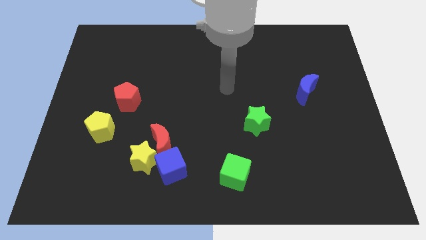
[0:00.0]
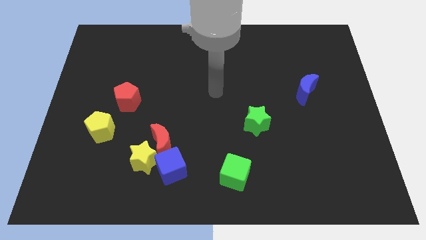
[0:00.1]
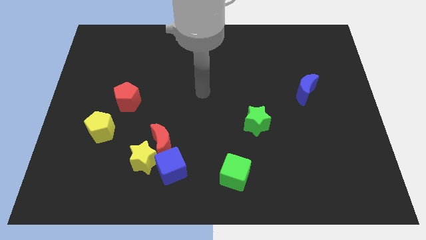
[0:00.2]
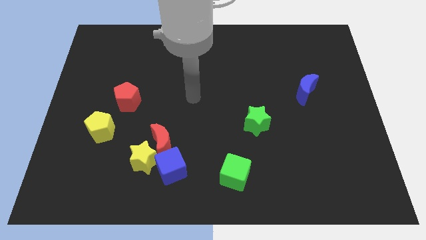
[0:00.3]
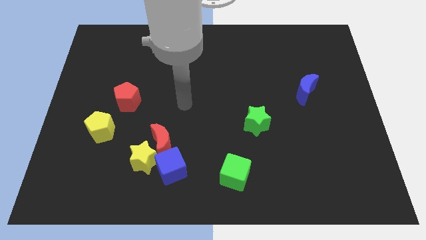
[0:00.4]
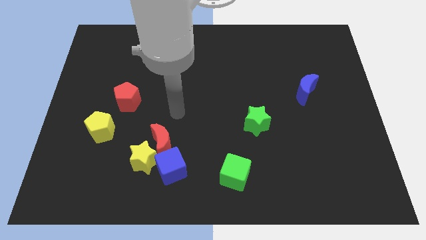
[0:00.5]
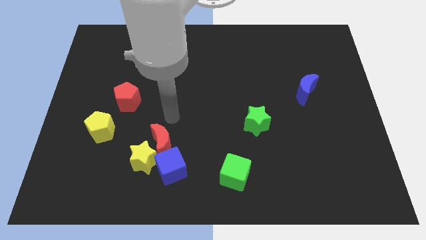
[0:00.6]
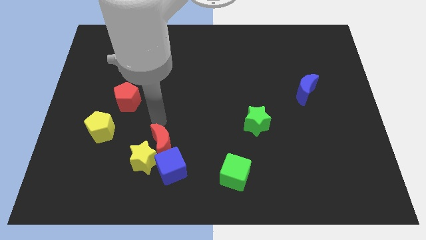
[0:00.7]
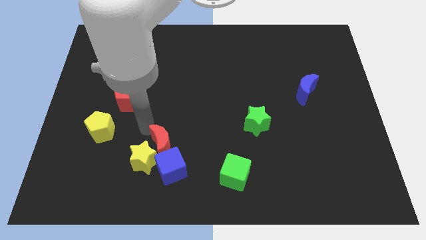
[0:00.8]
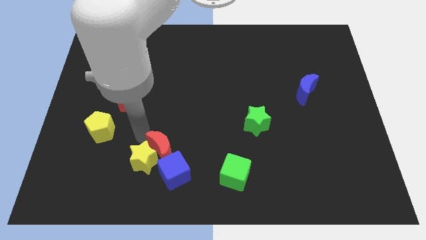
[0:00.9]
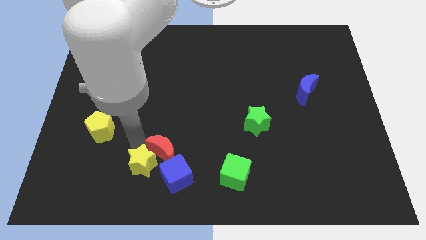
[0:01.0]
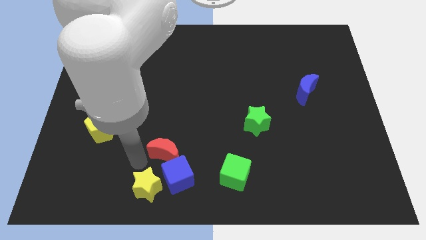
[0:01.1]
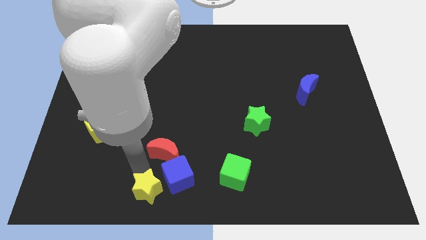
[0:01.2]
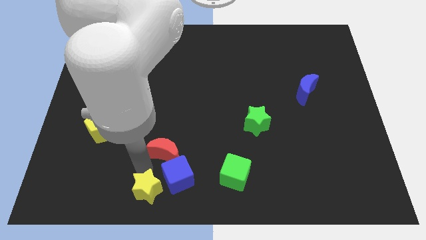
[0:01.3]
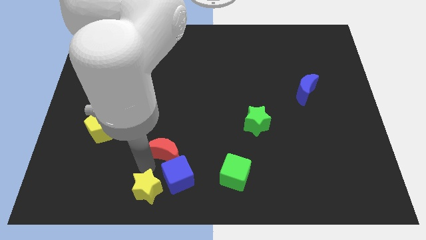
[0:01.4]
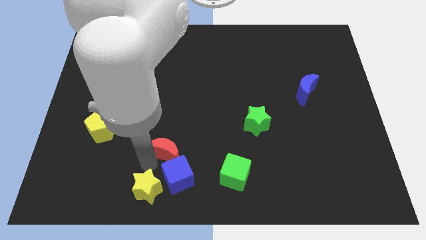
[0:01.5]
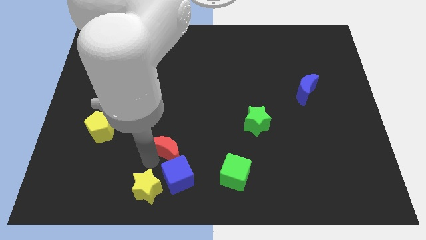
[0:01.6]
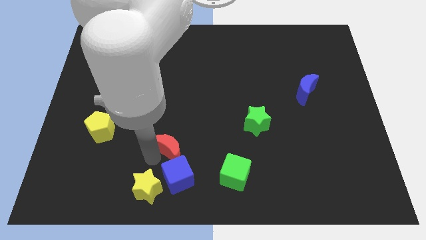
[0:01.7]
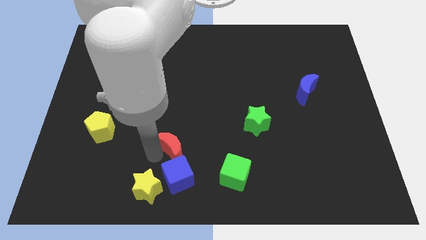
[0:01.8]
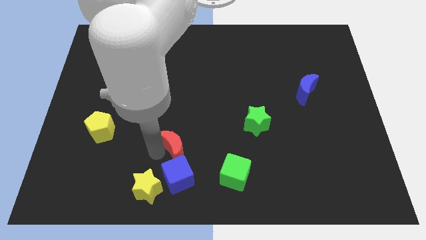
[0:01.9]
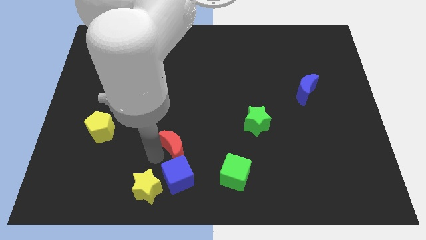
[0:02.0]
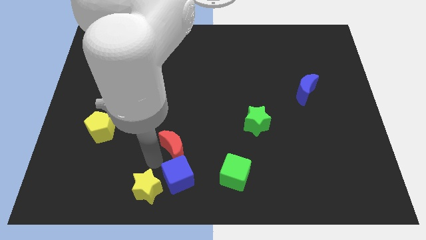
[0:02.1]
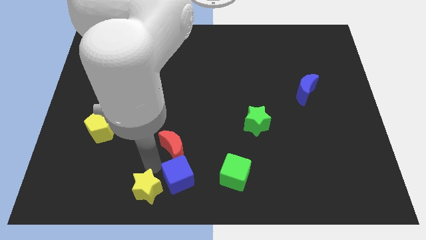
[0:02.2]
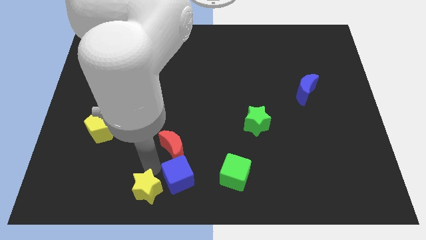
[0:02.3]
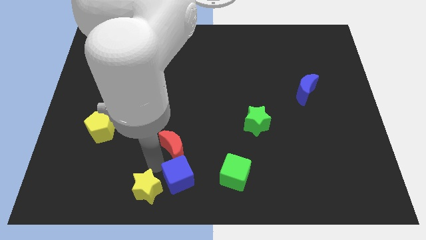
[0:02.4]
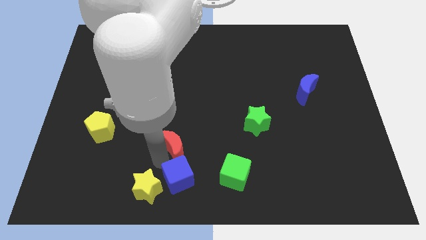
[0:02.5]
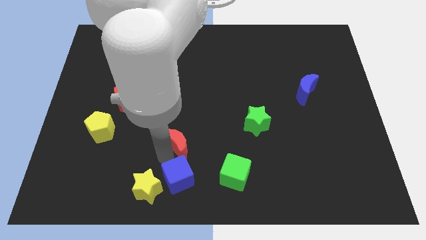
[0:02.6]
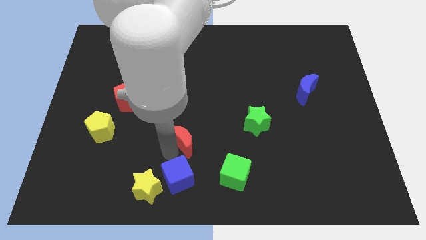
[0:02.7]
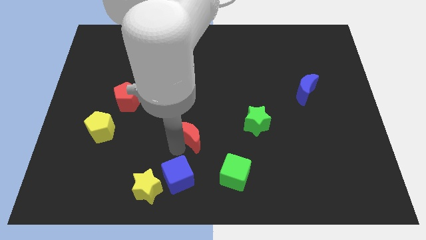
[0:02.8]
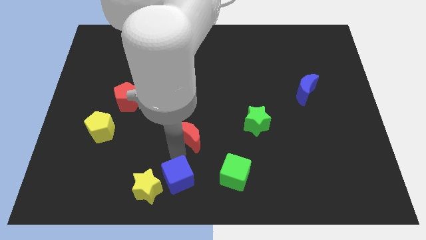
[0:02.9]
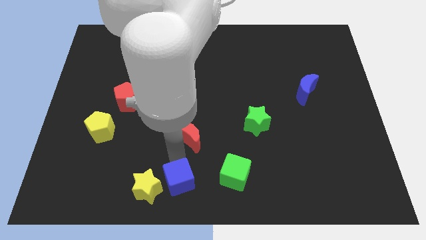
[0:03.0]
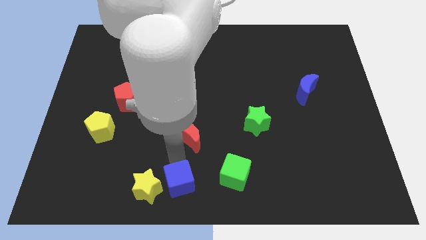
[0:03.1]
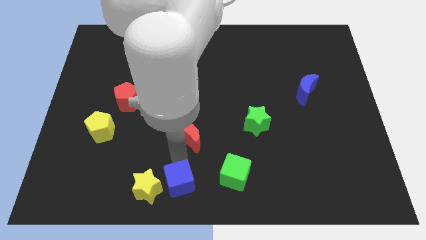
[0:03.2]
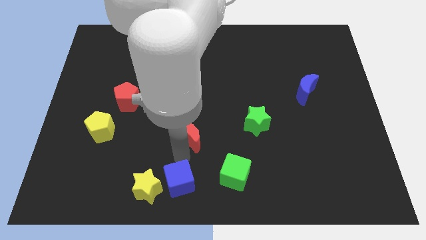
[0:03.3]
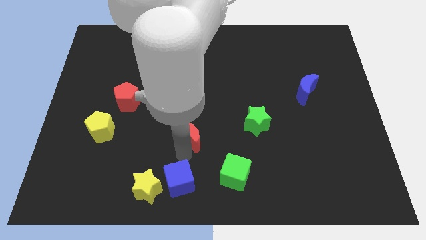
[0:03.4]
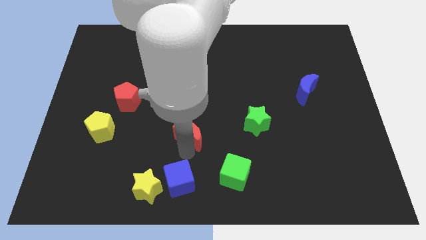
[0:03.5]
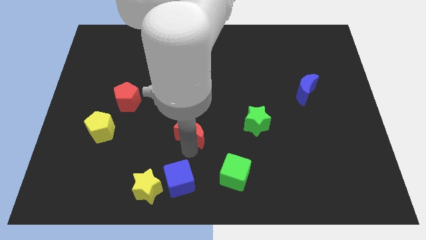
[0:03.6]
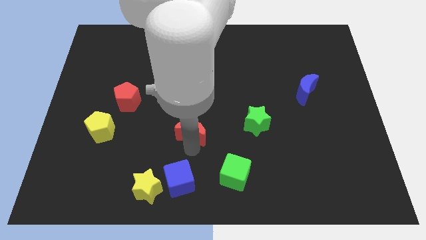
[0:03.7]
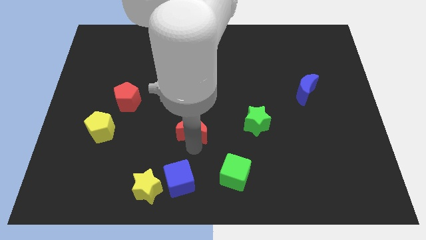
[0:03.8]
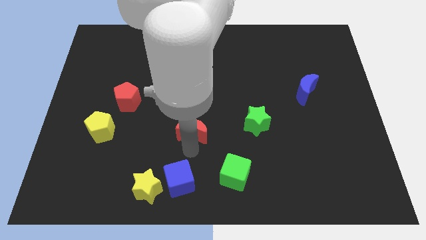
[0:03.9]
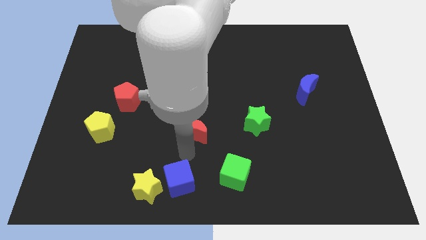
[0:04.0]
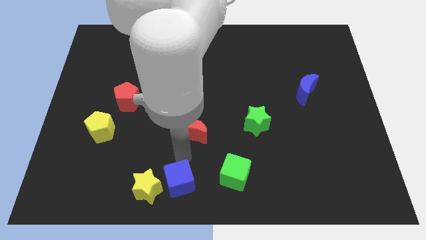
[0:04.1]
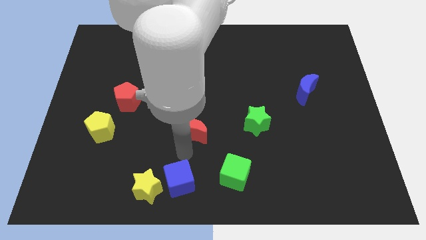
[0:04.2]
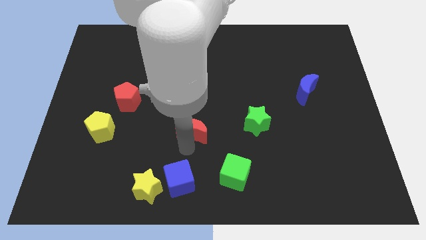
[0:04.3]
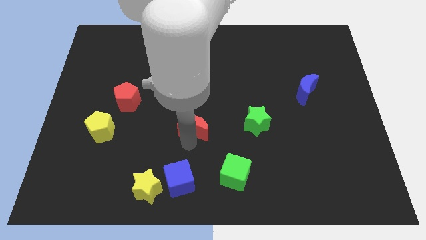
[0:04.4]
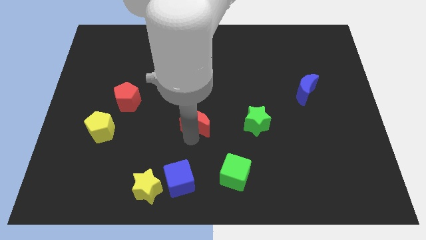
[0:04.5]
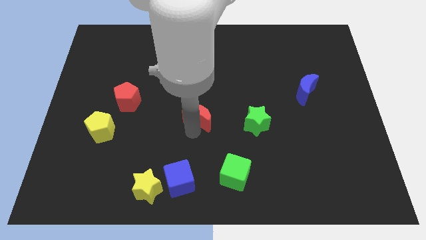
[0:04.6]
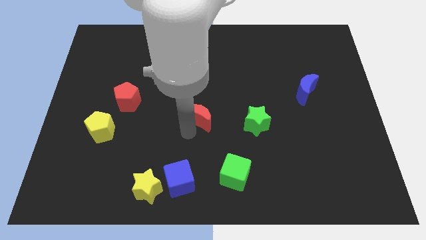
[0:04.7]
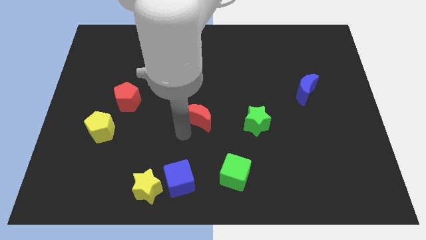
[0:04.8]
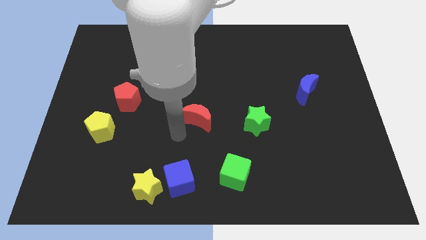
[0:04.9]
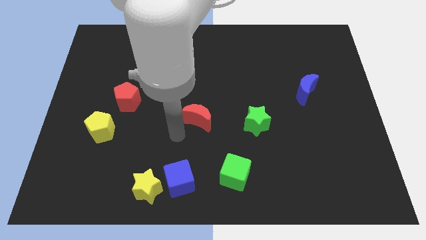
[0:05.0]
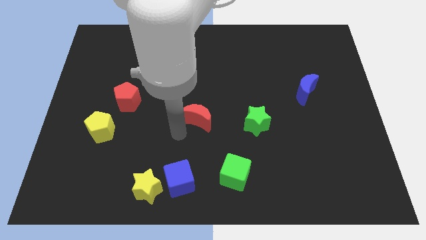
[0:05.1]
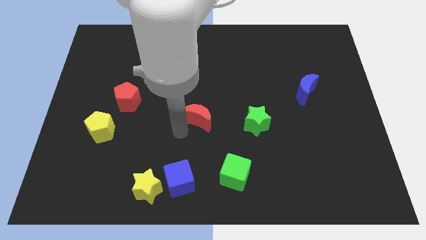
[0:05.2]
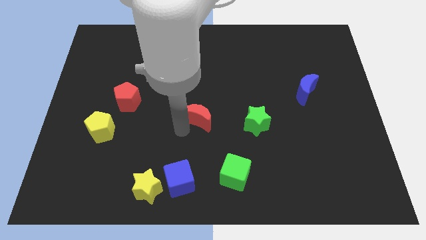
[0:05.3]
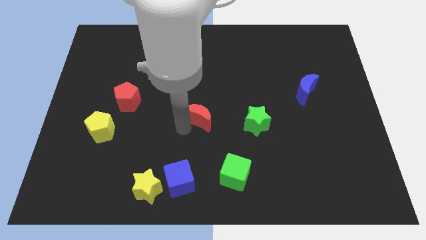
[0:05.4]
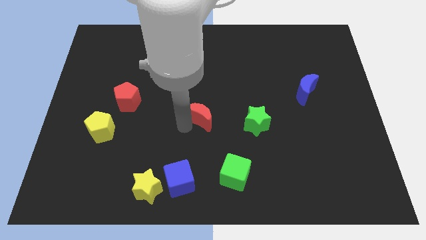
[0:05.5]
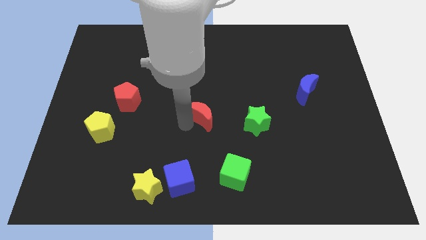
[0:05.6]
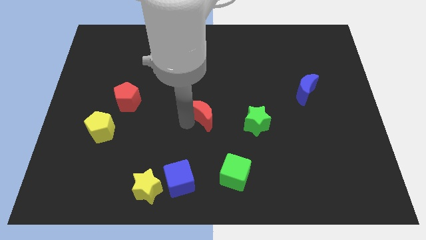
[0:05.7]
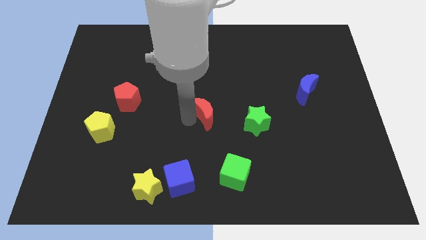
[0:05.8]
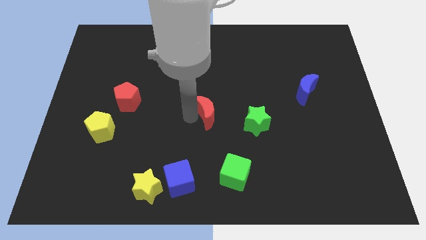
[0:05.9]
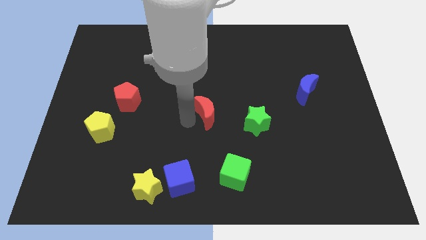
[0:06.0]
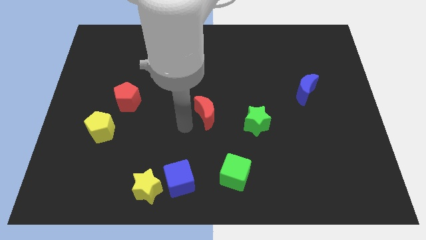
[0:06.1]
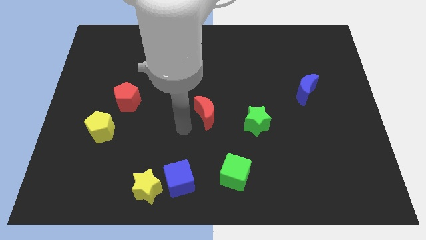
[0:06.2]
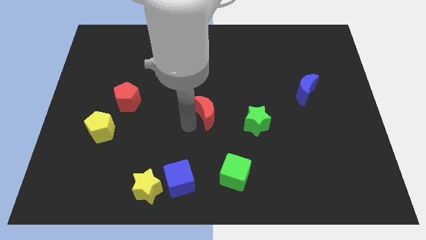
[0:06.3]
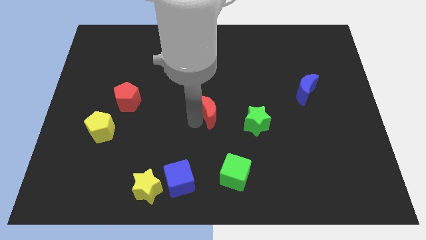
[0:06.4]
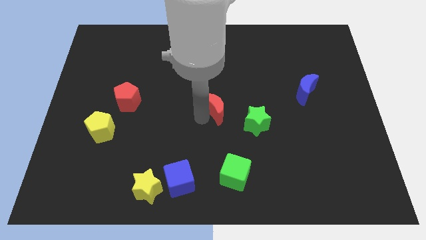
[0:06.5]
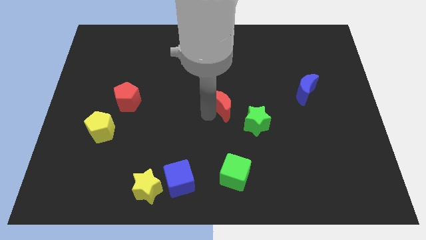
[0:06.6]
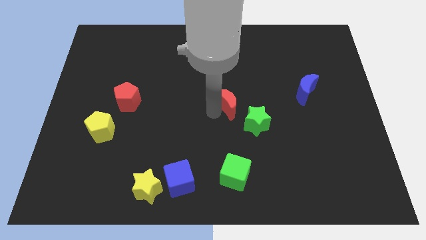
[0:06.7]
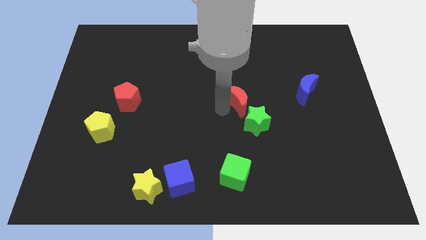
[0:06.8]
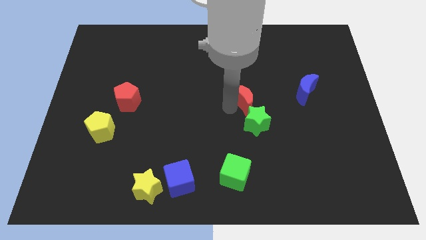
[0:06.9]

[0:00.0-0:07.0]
push the red moon upwards and then to the right

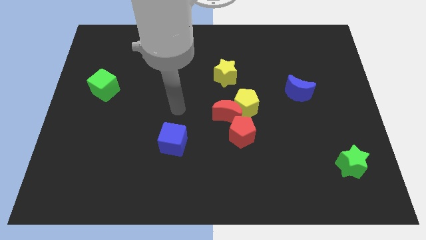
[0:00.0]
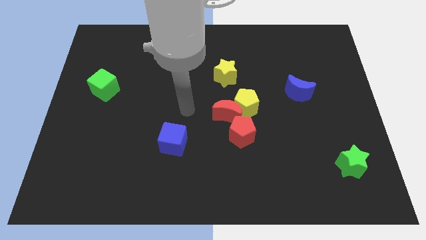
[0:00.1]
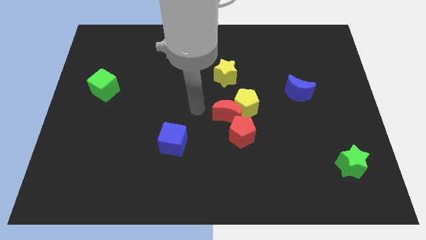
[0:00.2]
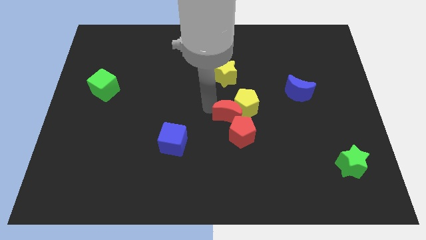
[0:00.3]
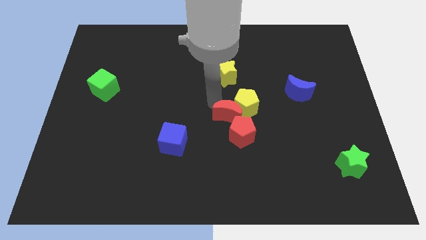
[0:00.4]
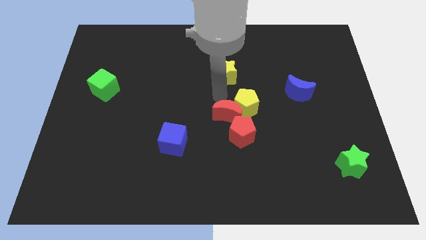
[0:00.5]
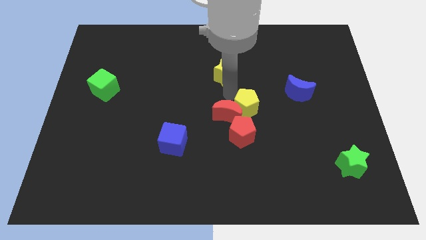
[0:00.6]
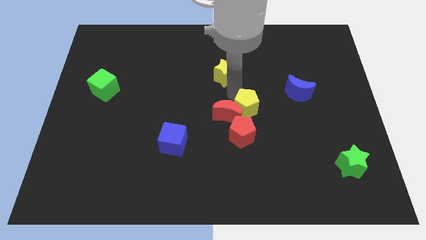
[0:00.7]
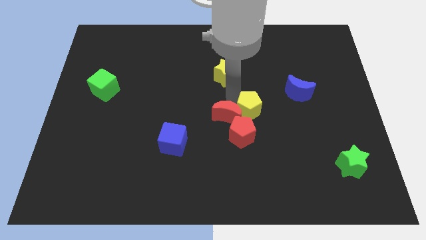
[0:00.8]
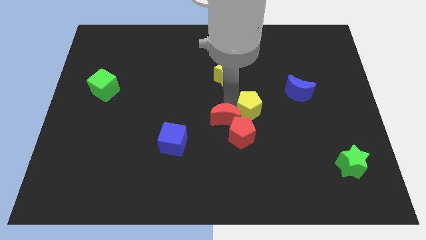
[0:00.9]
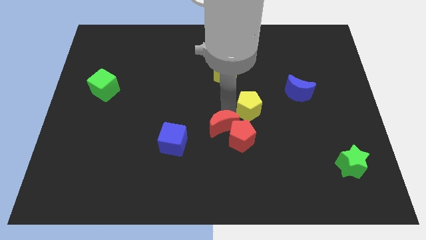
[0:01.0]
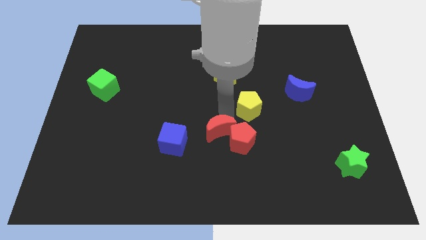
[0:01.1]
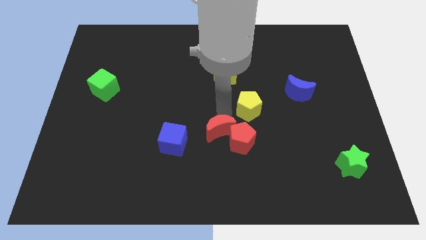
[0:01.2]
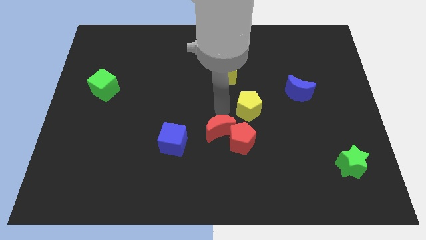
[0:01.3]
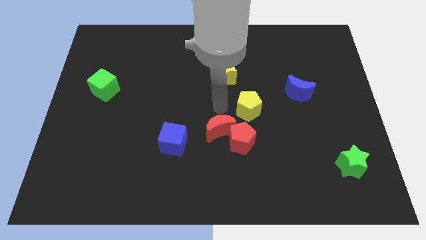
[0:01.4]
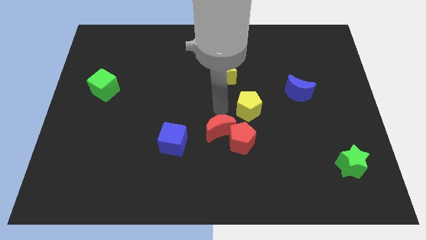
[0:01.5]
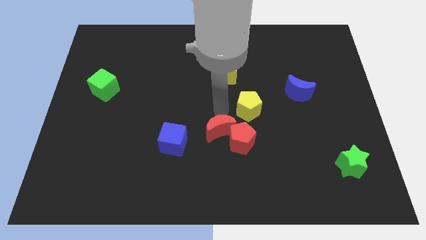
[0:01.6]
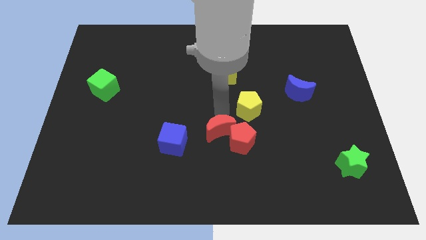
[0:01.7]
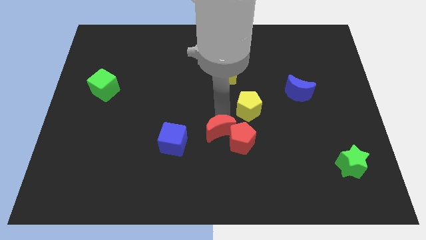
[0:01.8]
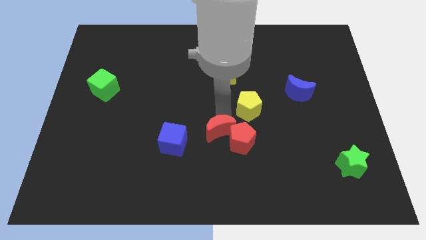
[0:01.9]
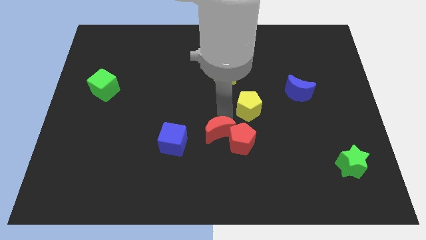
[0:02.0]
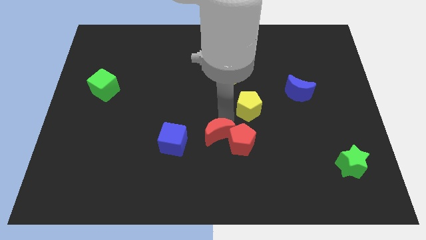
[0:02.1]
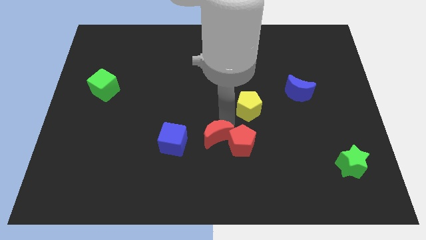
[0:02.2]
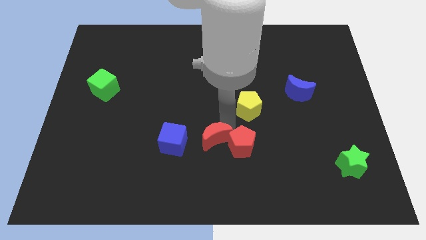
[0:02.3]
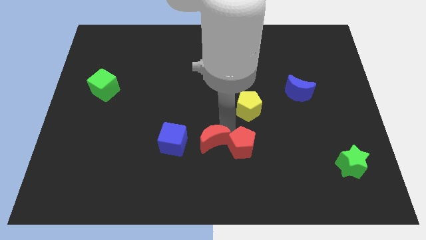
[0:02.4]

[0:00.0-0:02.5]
slightly move the red moon down and left diagonally
